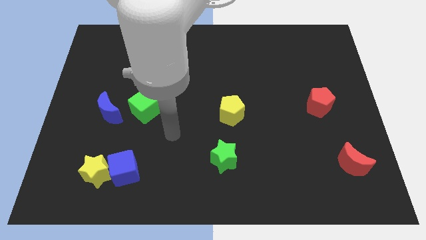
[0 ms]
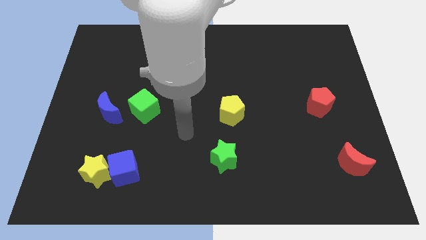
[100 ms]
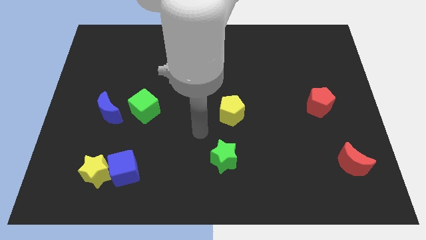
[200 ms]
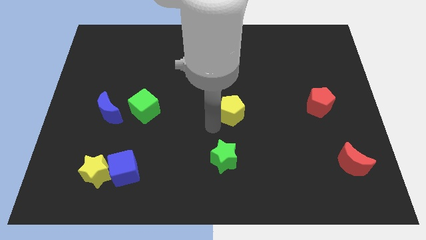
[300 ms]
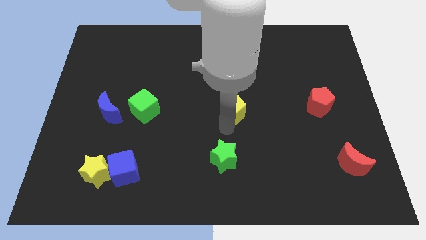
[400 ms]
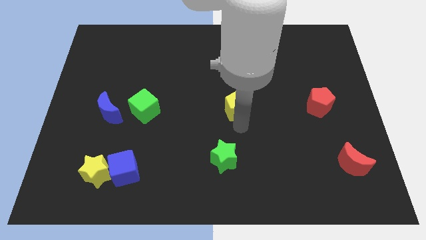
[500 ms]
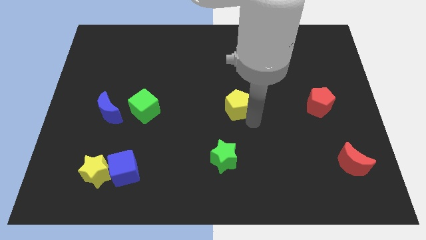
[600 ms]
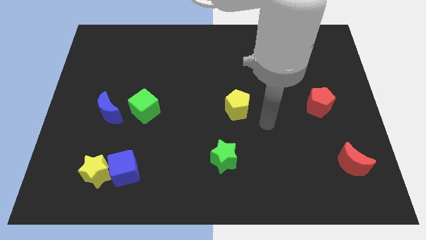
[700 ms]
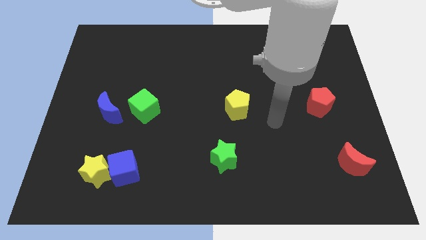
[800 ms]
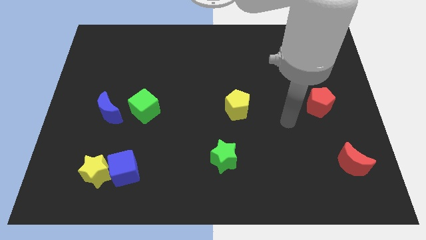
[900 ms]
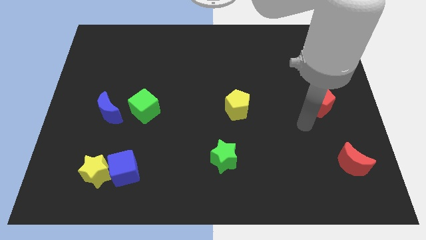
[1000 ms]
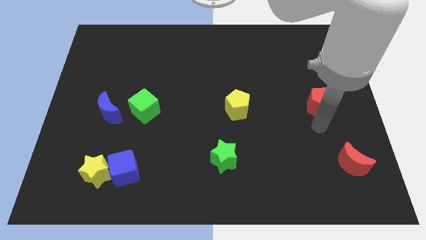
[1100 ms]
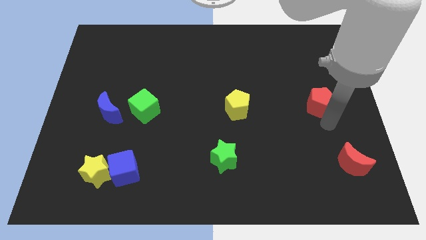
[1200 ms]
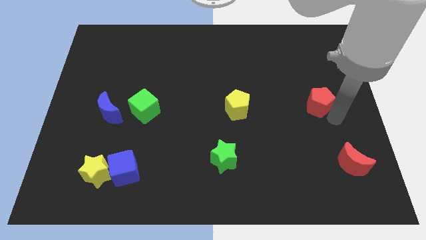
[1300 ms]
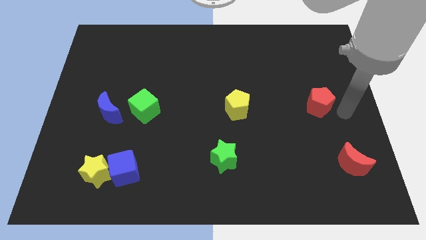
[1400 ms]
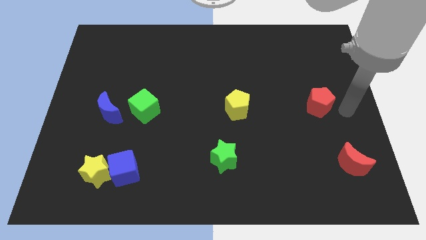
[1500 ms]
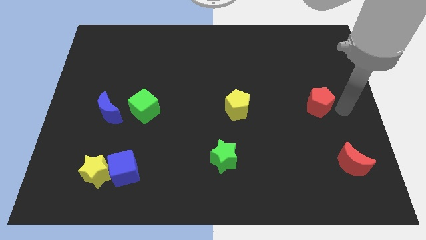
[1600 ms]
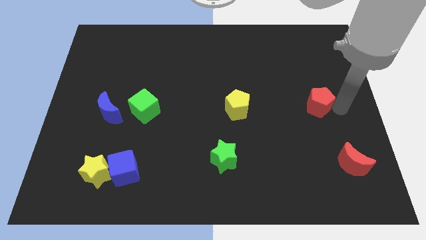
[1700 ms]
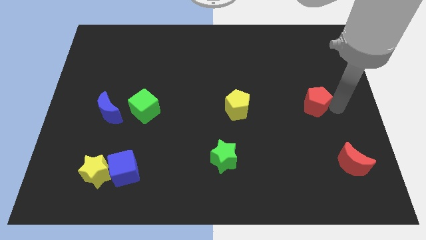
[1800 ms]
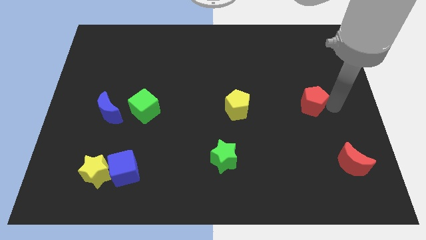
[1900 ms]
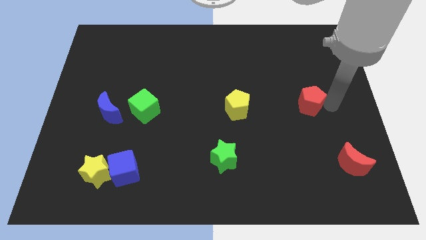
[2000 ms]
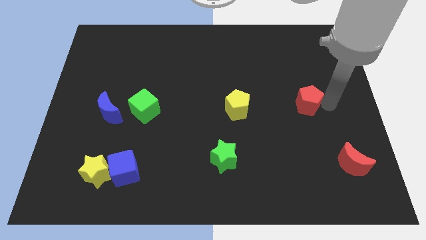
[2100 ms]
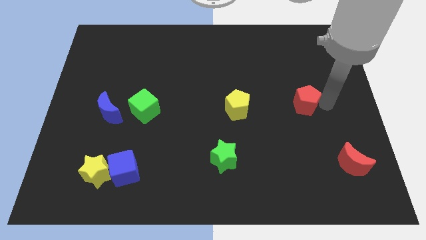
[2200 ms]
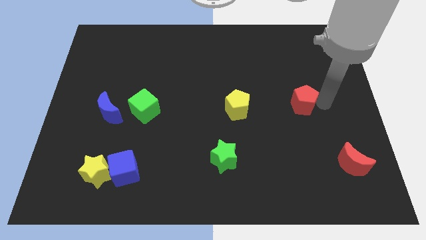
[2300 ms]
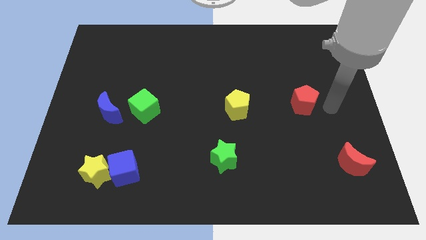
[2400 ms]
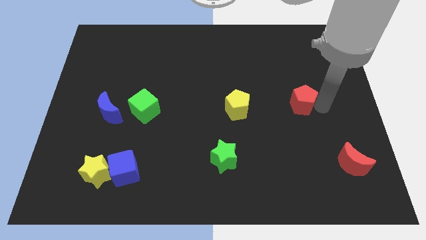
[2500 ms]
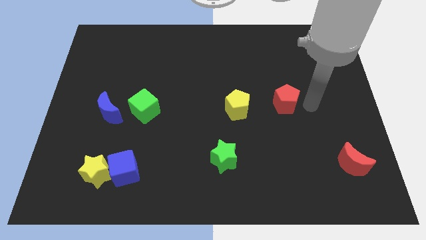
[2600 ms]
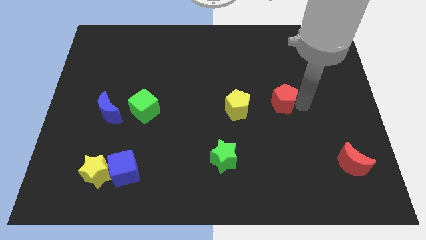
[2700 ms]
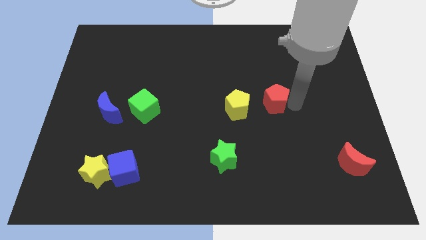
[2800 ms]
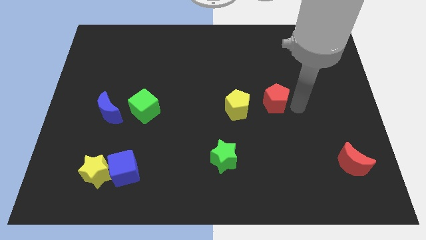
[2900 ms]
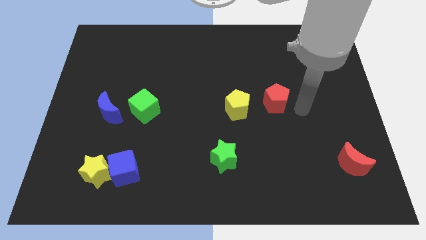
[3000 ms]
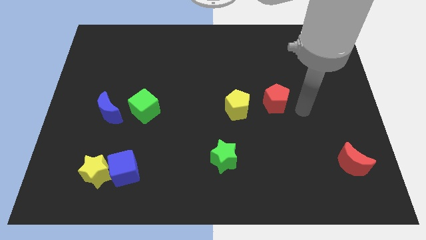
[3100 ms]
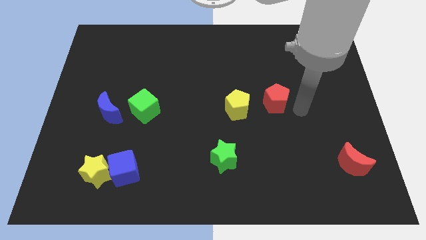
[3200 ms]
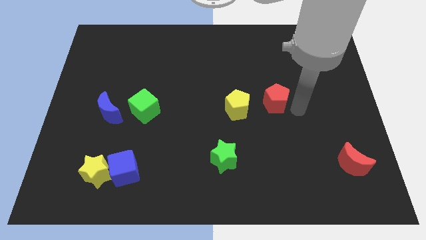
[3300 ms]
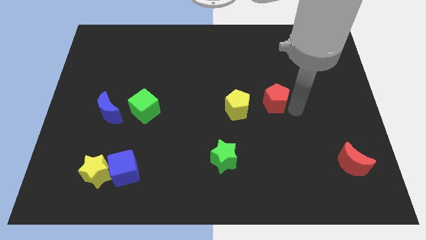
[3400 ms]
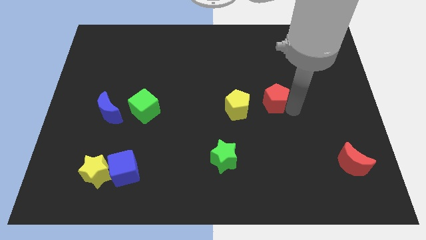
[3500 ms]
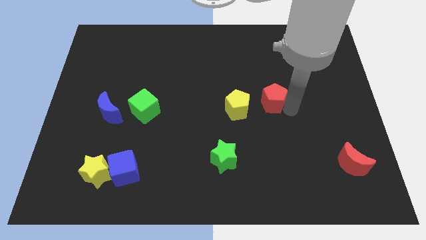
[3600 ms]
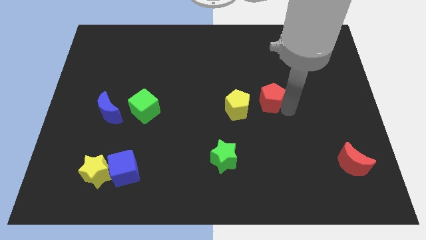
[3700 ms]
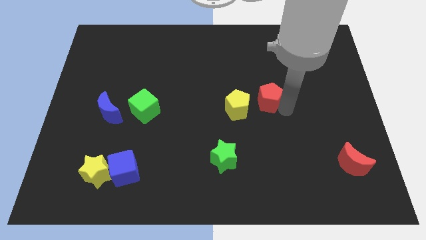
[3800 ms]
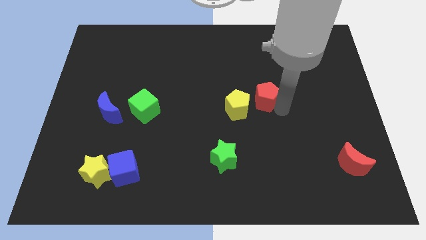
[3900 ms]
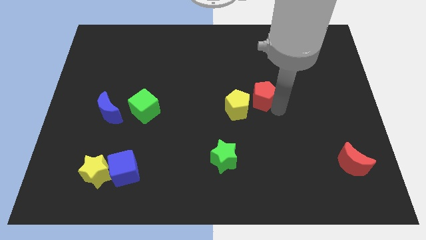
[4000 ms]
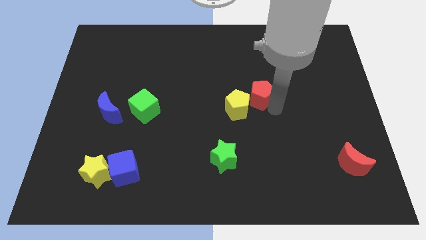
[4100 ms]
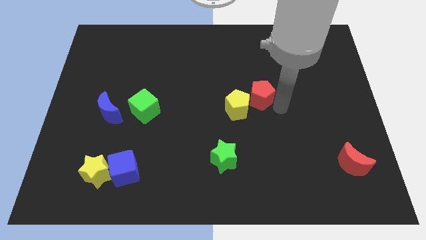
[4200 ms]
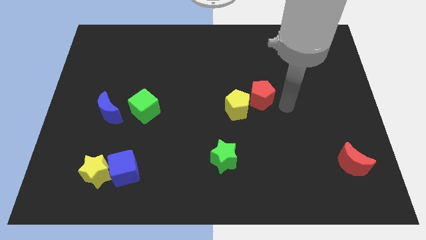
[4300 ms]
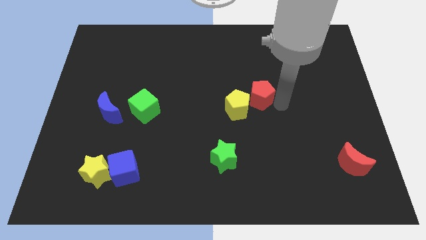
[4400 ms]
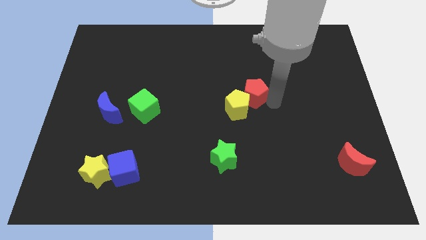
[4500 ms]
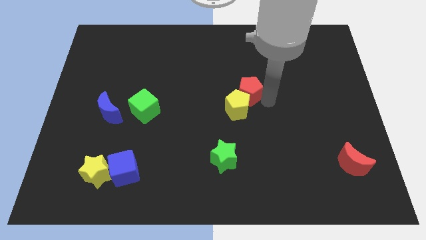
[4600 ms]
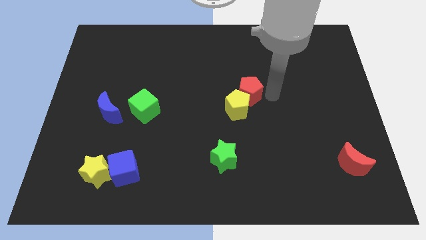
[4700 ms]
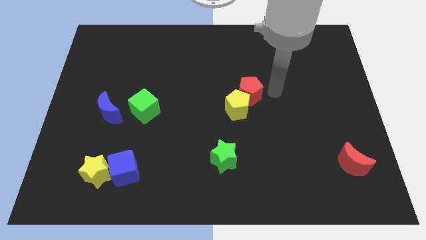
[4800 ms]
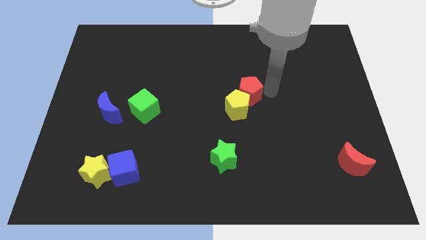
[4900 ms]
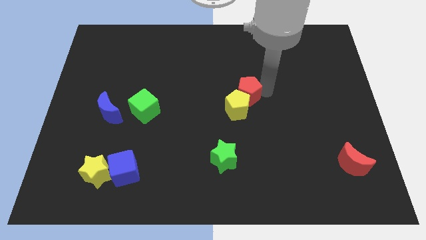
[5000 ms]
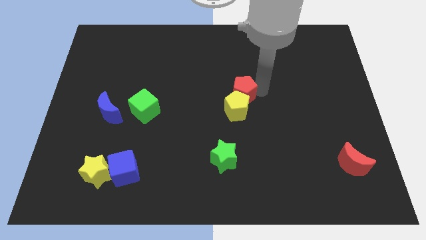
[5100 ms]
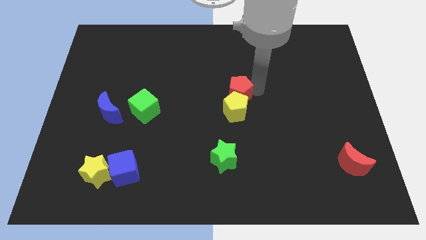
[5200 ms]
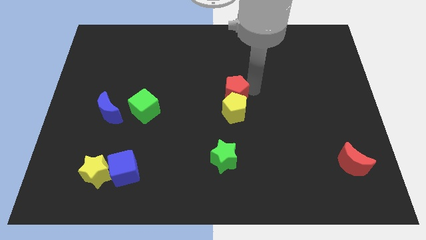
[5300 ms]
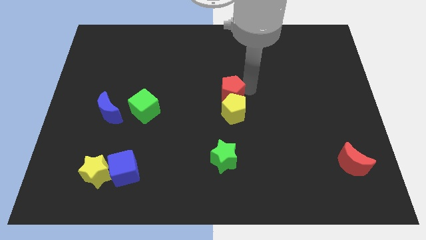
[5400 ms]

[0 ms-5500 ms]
move the red pentagon to the left

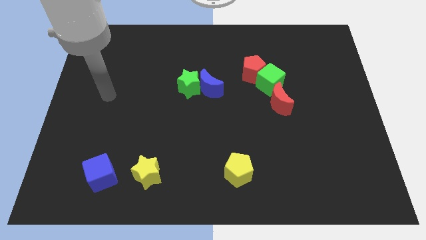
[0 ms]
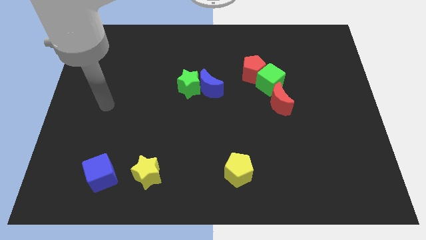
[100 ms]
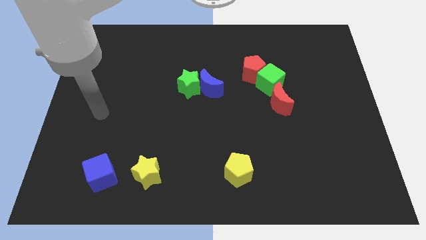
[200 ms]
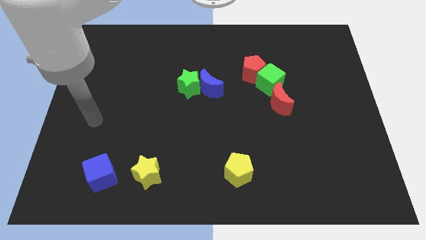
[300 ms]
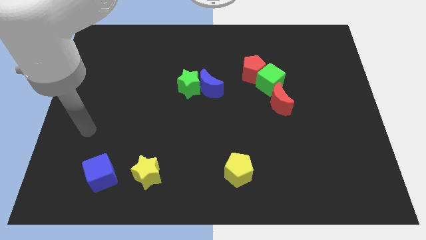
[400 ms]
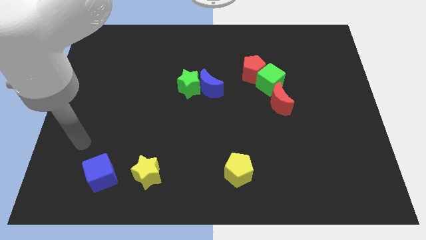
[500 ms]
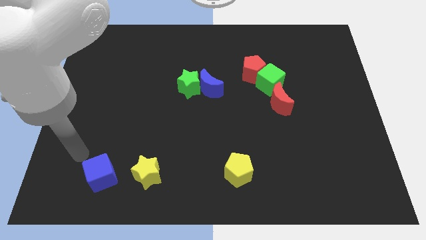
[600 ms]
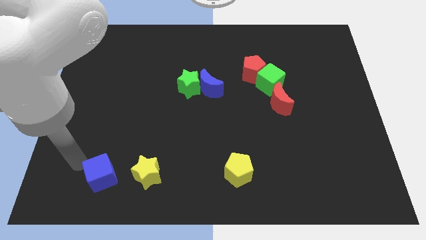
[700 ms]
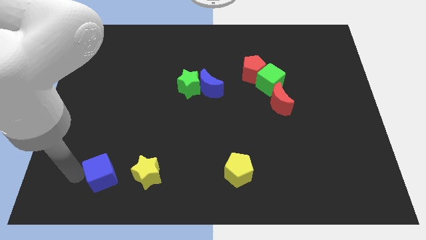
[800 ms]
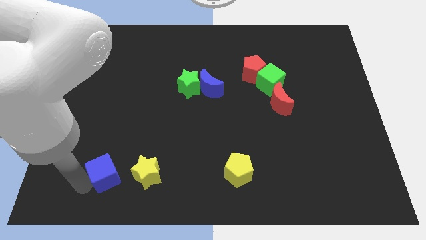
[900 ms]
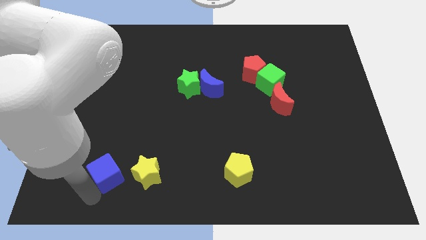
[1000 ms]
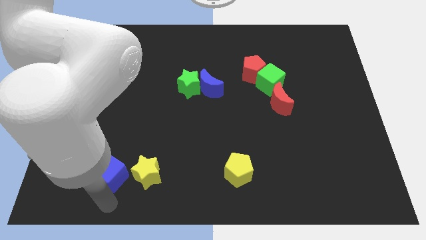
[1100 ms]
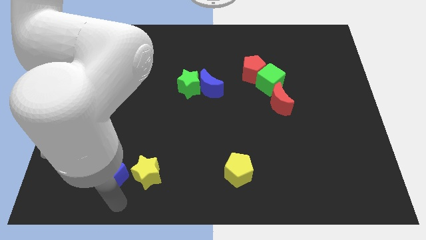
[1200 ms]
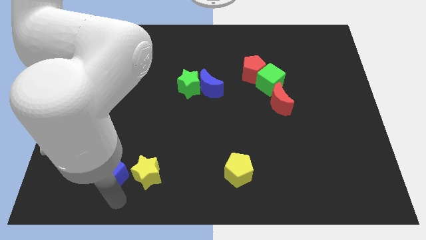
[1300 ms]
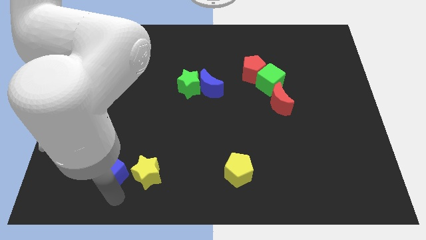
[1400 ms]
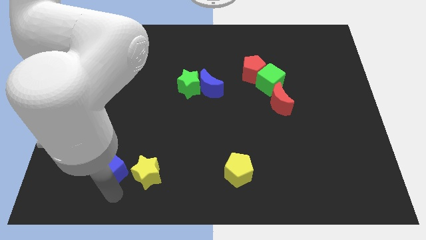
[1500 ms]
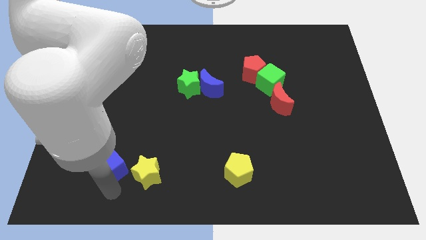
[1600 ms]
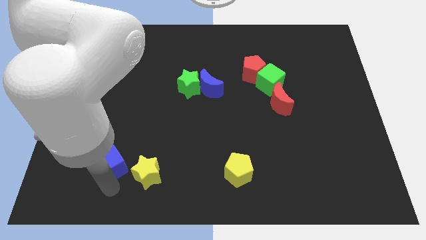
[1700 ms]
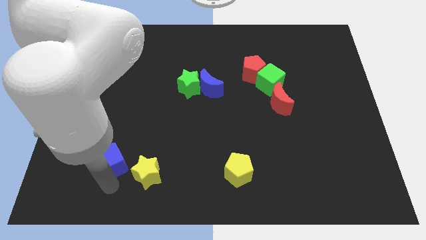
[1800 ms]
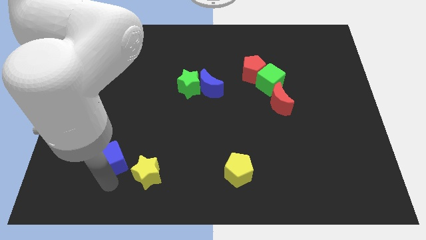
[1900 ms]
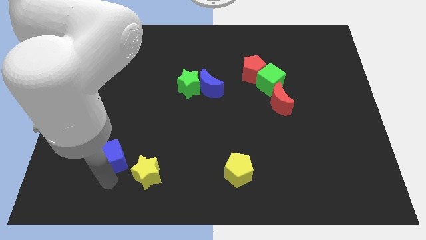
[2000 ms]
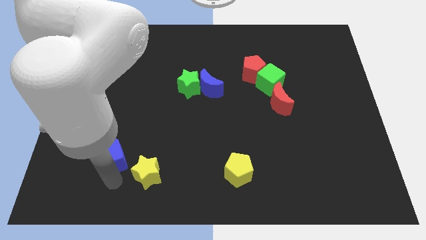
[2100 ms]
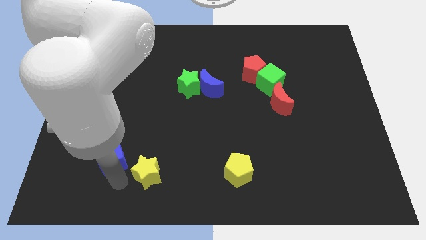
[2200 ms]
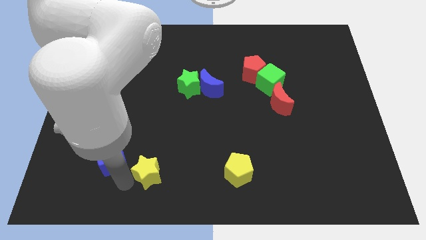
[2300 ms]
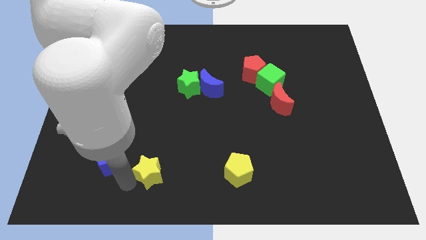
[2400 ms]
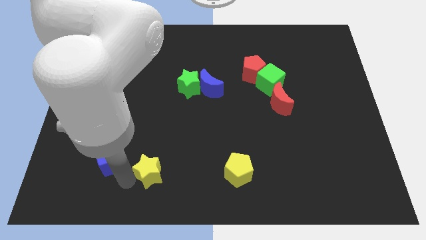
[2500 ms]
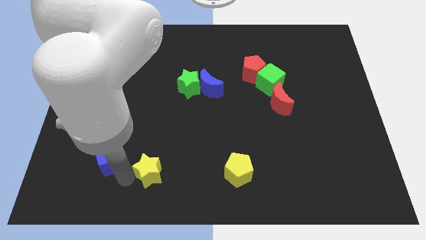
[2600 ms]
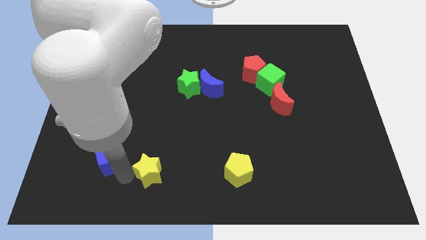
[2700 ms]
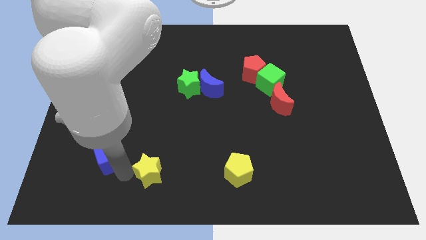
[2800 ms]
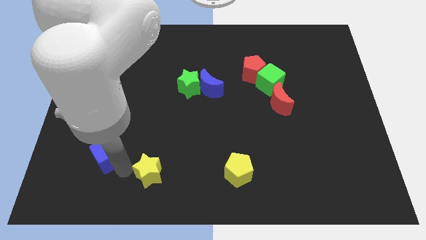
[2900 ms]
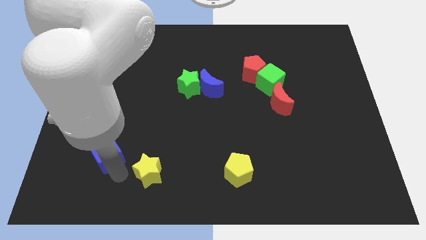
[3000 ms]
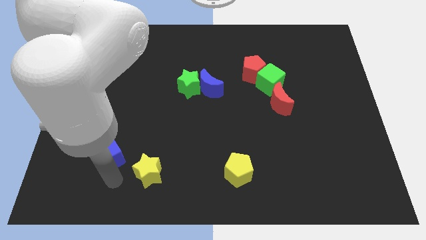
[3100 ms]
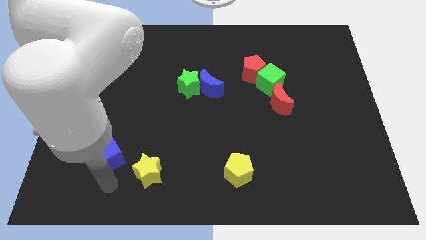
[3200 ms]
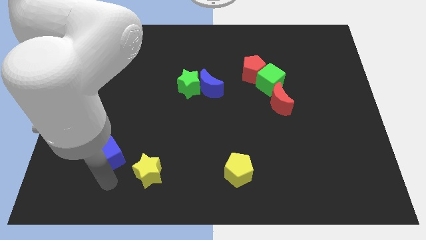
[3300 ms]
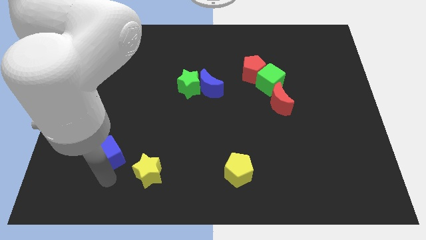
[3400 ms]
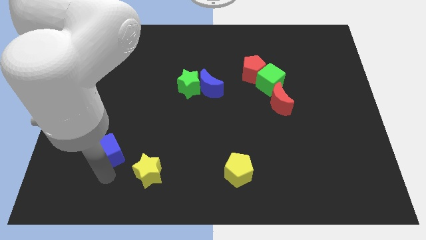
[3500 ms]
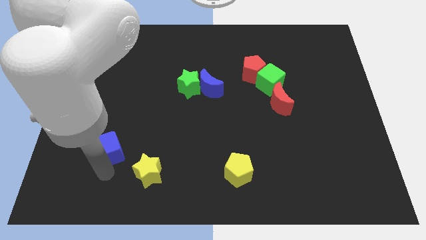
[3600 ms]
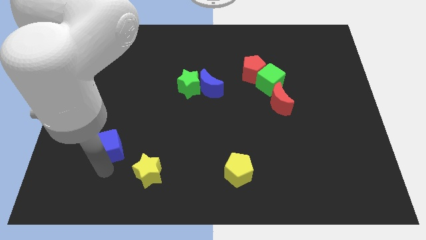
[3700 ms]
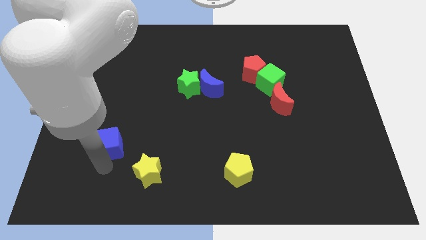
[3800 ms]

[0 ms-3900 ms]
slightly push the blue cube upwards
